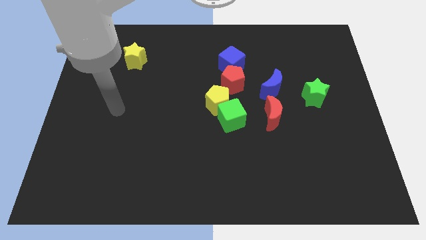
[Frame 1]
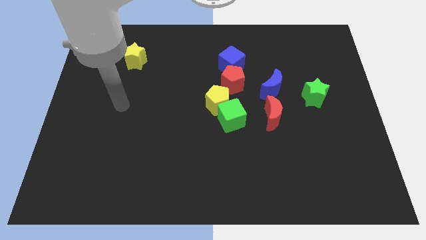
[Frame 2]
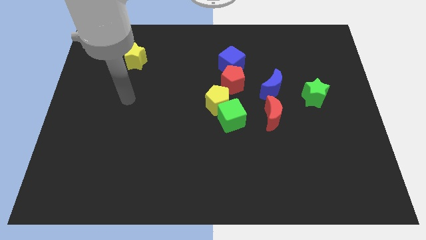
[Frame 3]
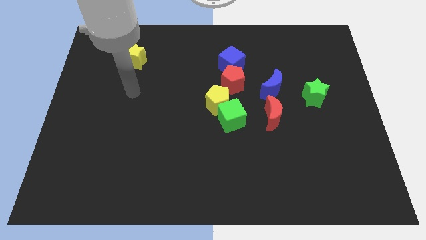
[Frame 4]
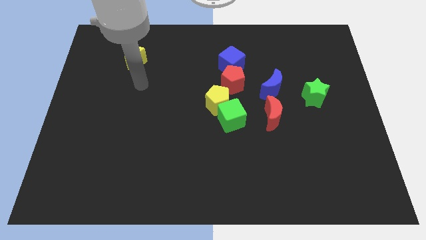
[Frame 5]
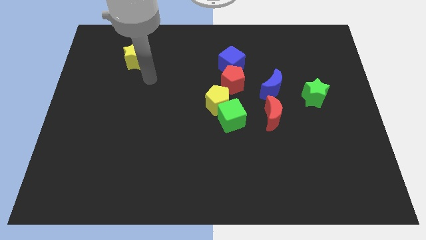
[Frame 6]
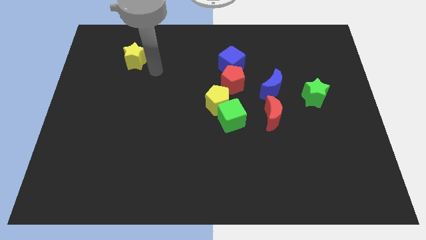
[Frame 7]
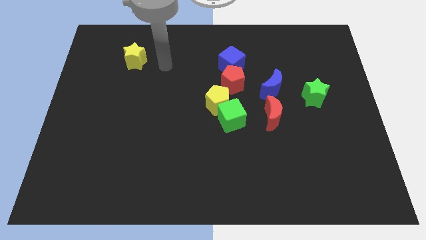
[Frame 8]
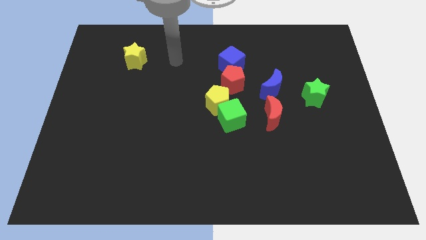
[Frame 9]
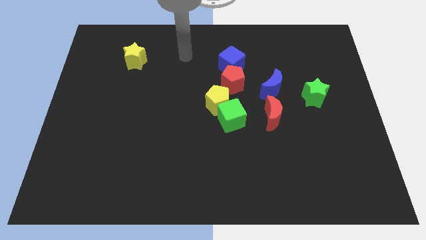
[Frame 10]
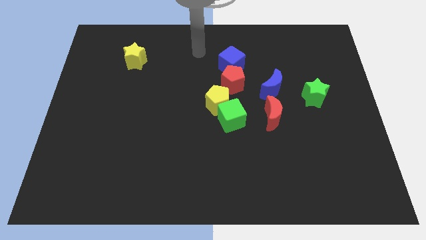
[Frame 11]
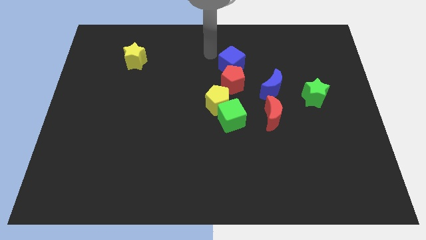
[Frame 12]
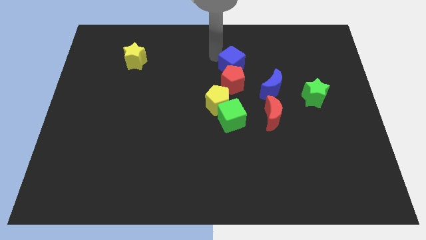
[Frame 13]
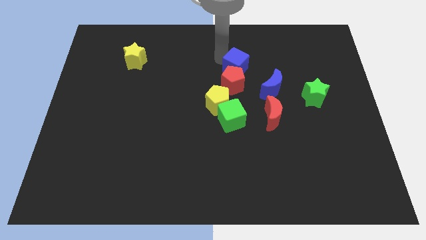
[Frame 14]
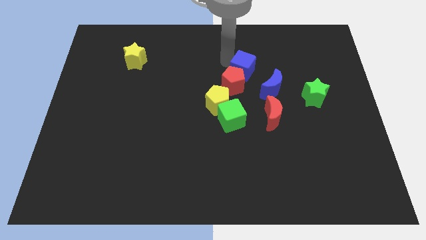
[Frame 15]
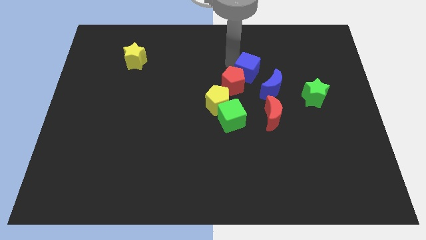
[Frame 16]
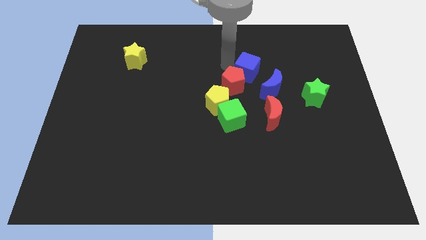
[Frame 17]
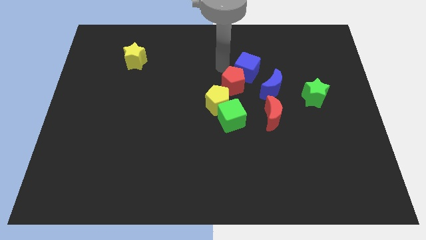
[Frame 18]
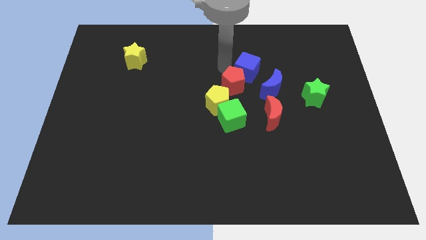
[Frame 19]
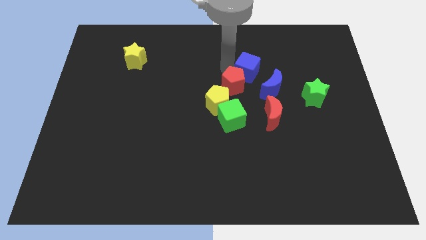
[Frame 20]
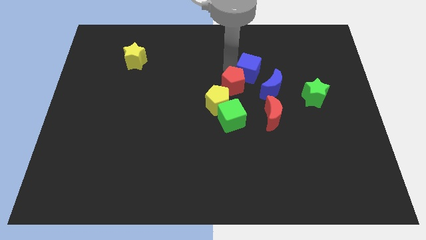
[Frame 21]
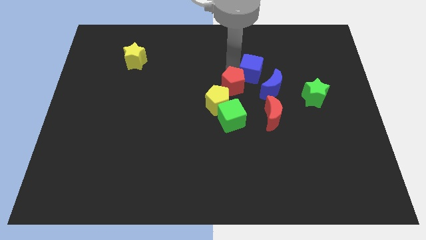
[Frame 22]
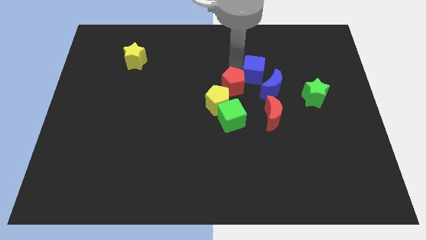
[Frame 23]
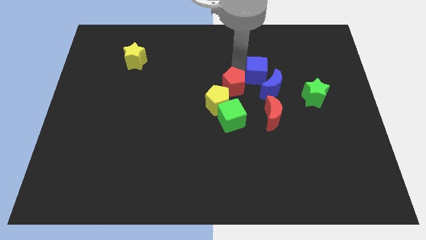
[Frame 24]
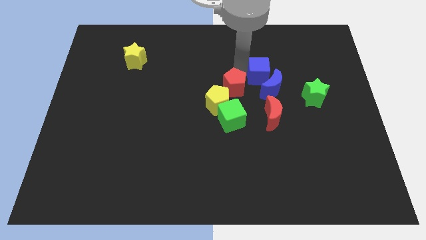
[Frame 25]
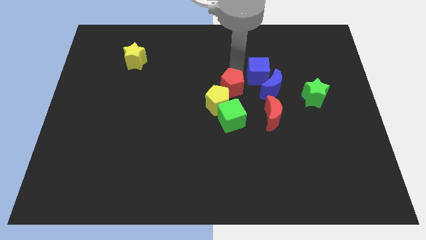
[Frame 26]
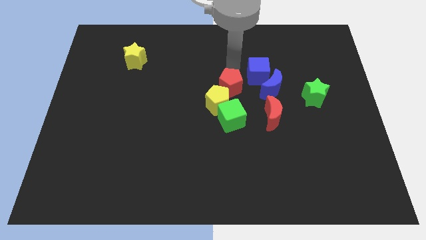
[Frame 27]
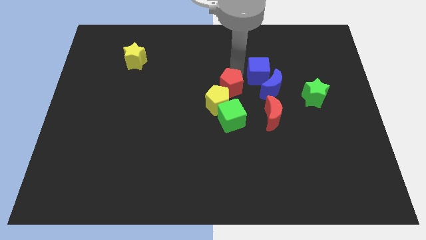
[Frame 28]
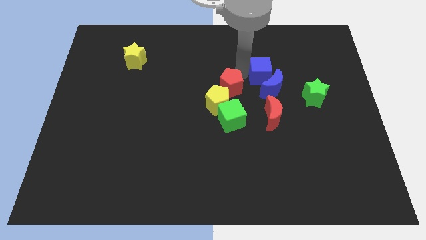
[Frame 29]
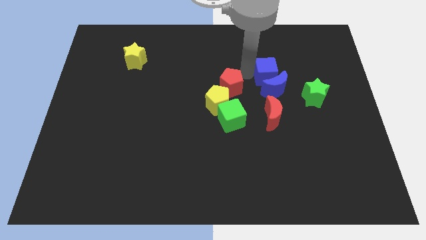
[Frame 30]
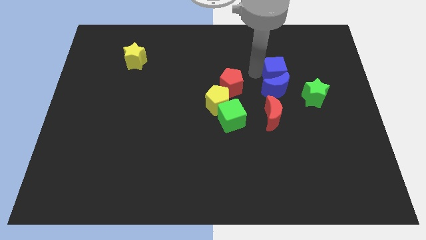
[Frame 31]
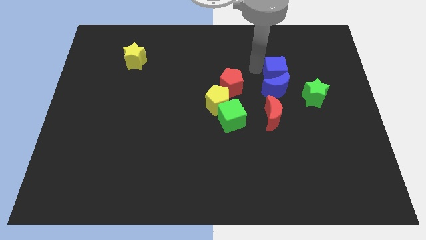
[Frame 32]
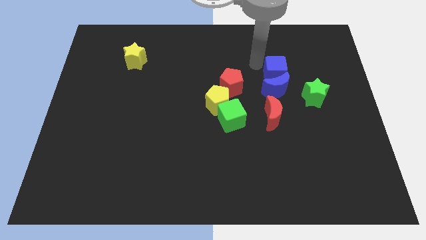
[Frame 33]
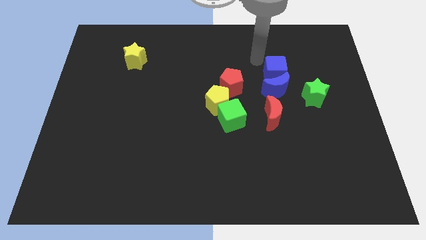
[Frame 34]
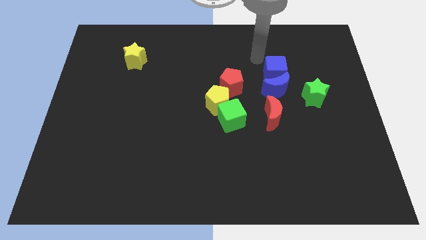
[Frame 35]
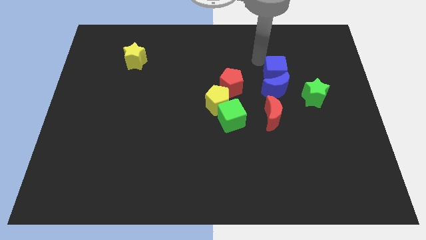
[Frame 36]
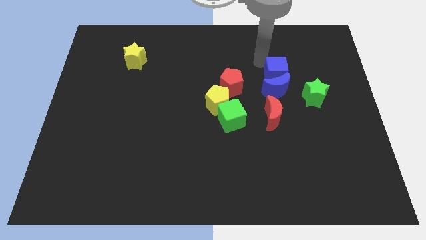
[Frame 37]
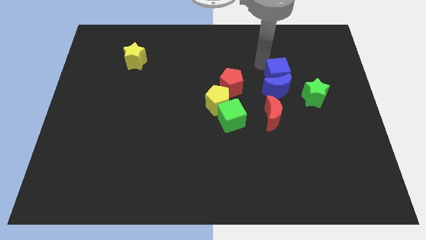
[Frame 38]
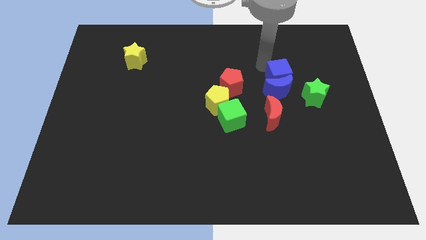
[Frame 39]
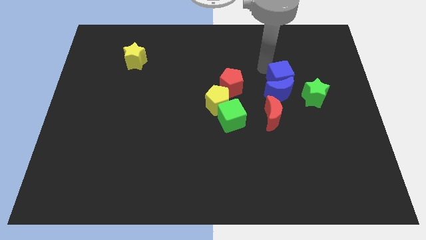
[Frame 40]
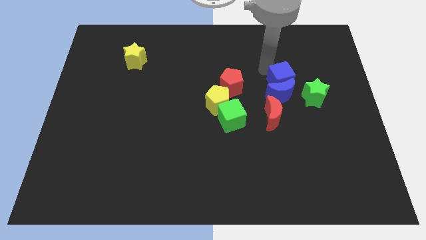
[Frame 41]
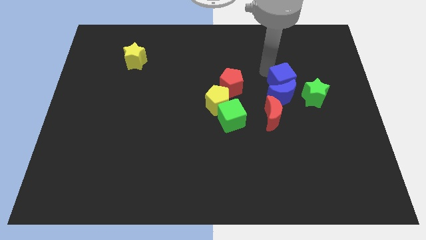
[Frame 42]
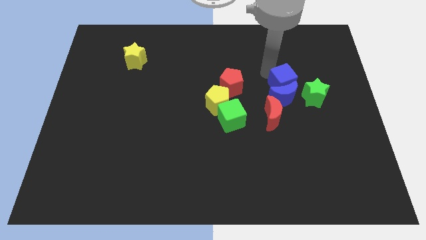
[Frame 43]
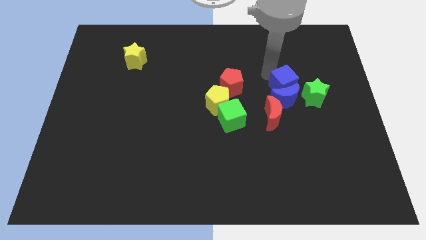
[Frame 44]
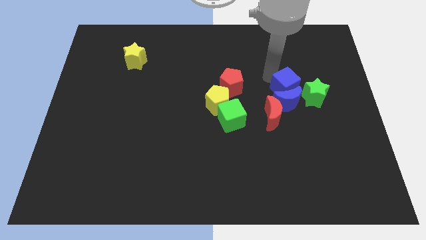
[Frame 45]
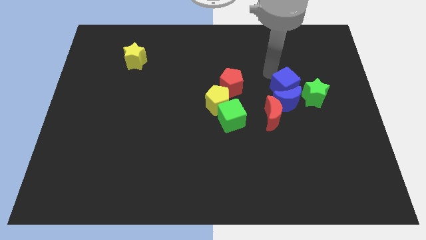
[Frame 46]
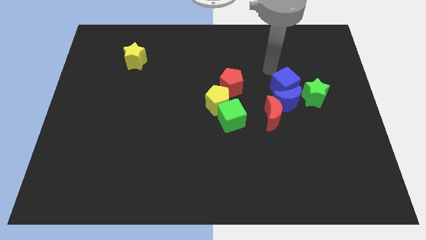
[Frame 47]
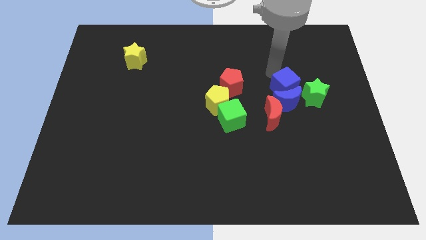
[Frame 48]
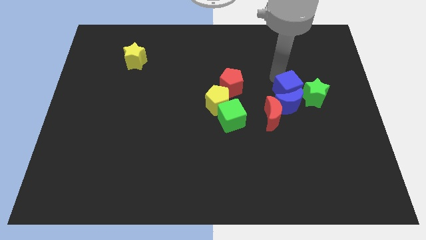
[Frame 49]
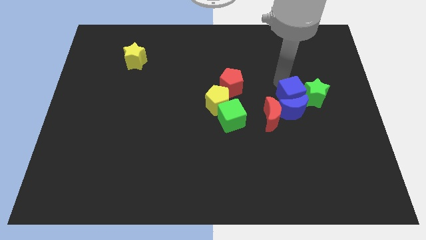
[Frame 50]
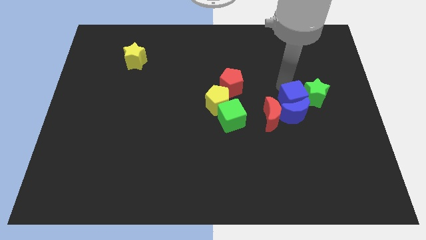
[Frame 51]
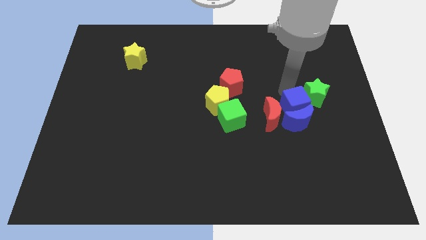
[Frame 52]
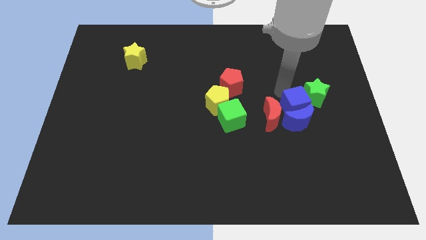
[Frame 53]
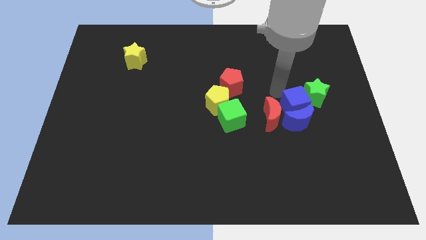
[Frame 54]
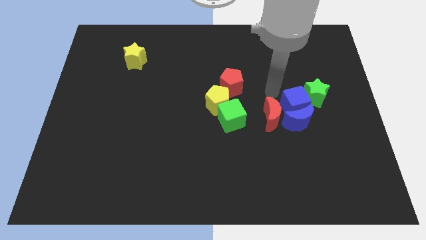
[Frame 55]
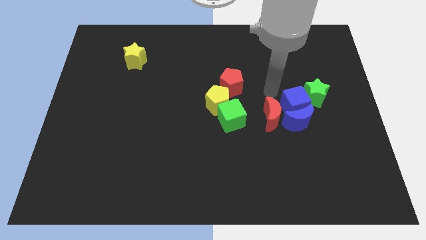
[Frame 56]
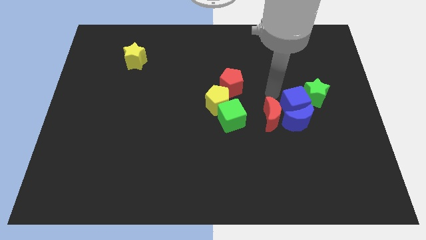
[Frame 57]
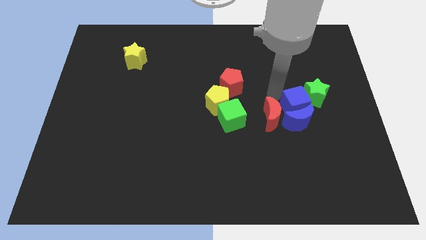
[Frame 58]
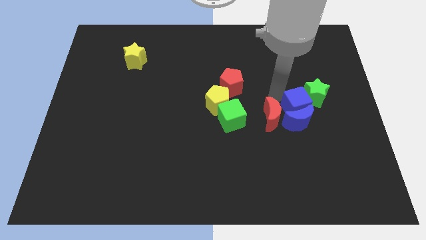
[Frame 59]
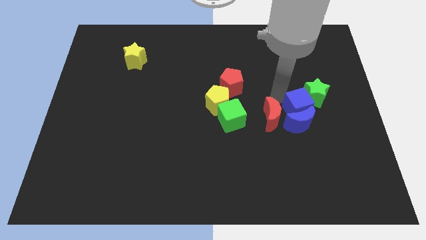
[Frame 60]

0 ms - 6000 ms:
slide the blue cube below the green star
